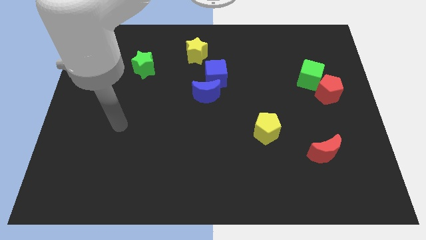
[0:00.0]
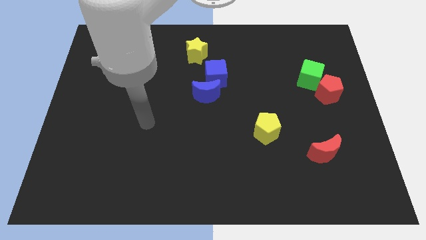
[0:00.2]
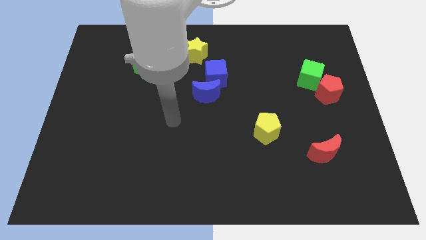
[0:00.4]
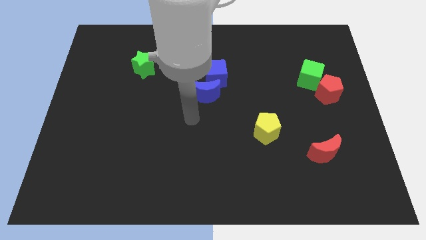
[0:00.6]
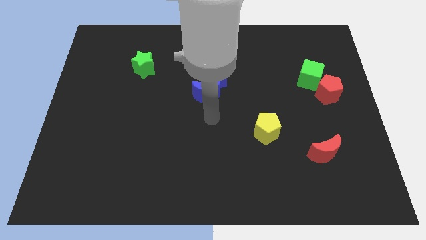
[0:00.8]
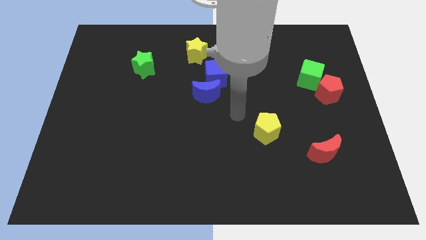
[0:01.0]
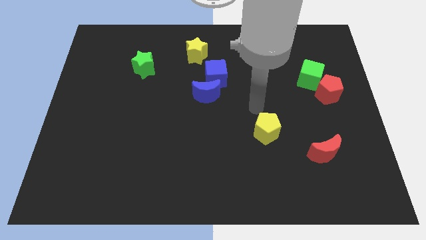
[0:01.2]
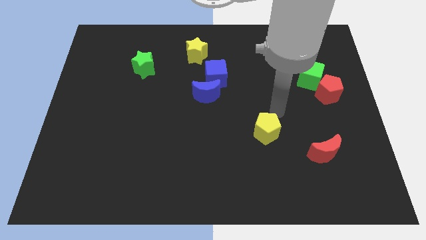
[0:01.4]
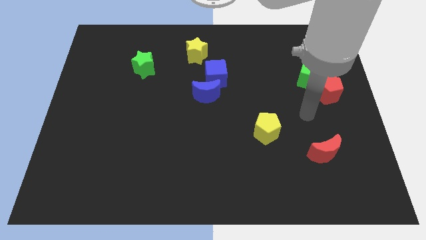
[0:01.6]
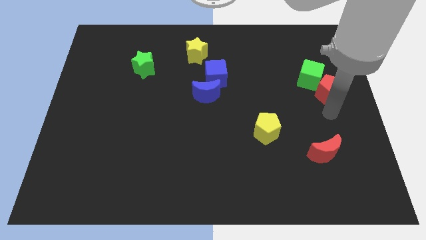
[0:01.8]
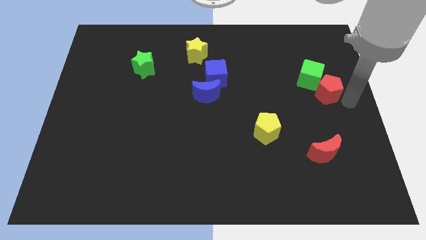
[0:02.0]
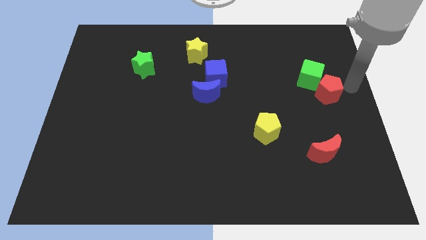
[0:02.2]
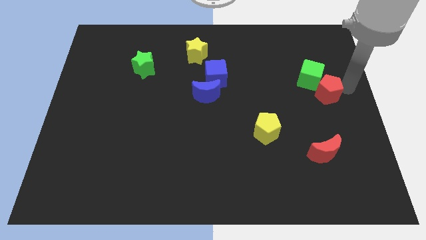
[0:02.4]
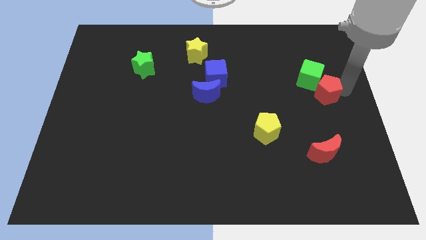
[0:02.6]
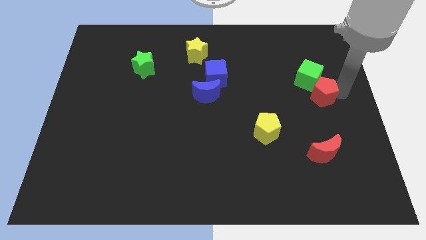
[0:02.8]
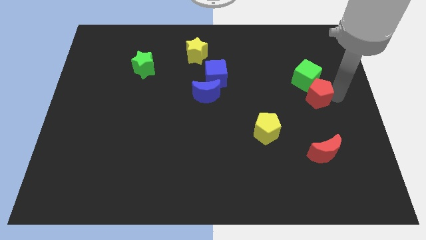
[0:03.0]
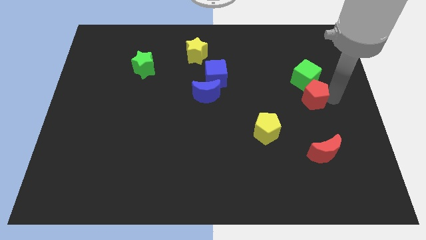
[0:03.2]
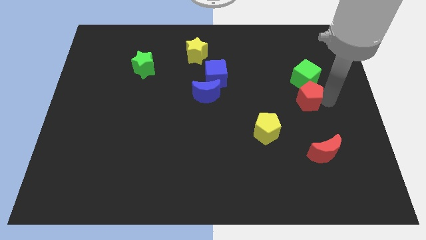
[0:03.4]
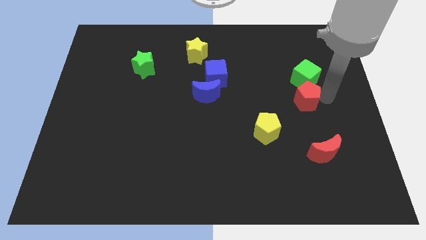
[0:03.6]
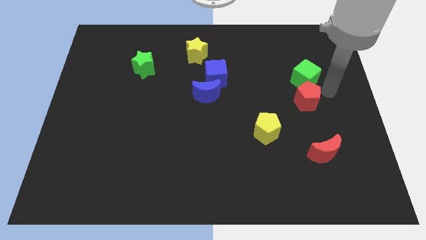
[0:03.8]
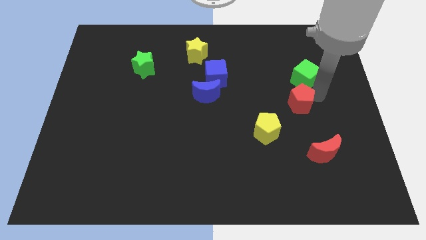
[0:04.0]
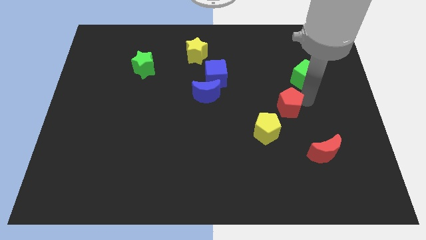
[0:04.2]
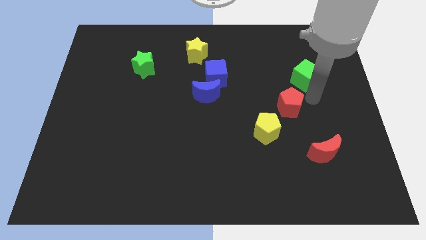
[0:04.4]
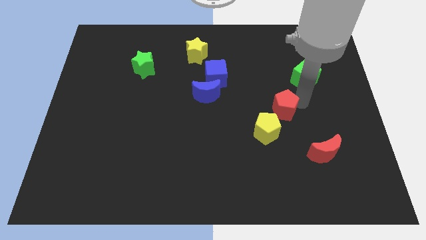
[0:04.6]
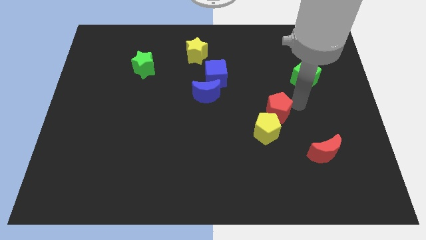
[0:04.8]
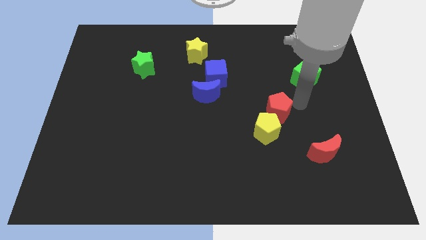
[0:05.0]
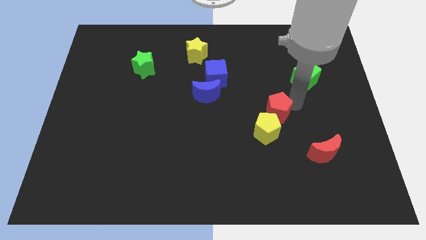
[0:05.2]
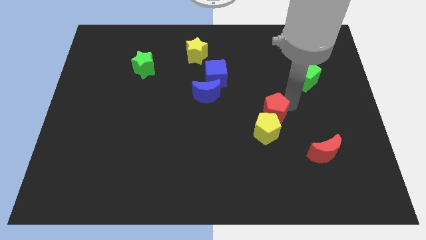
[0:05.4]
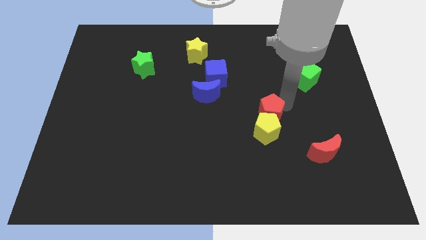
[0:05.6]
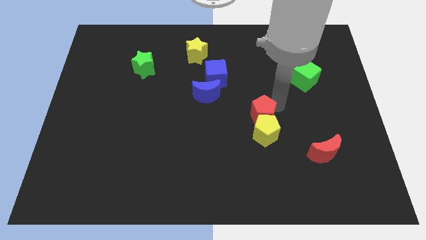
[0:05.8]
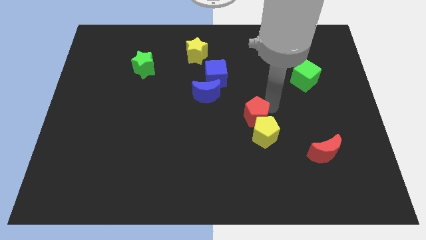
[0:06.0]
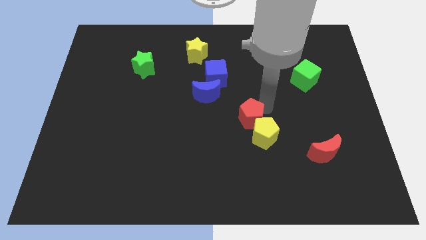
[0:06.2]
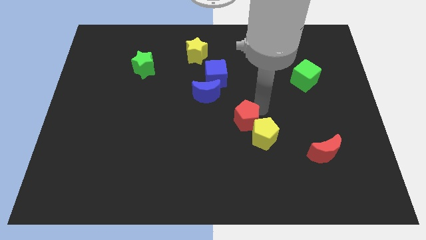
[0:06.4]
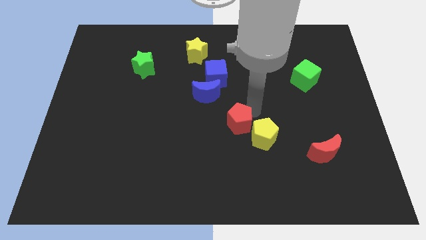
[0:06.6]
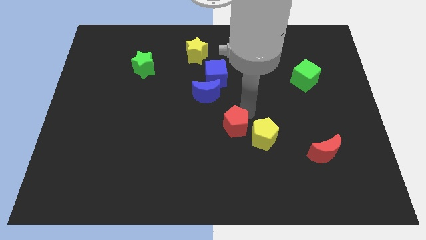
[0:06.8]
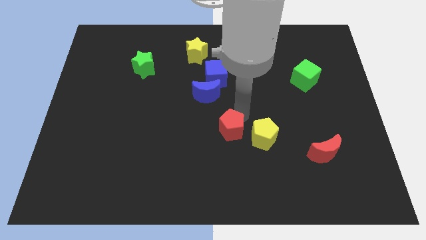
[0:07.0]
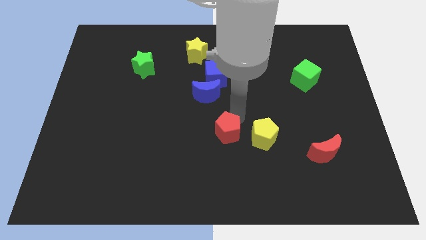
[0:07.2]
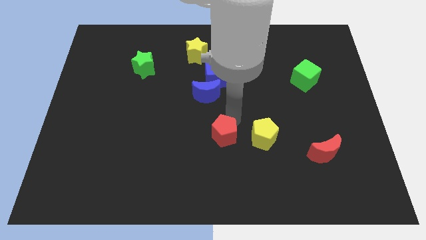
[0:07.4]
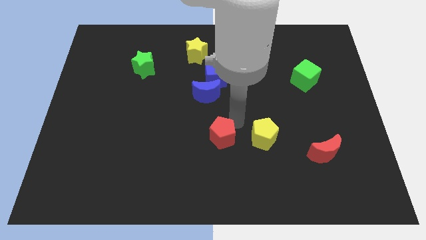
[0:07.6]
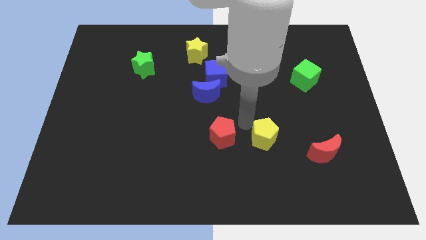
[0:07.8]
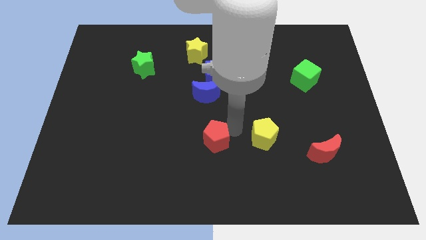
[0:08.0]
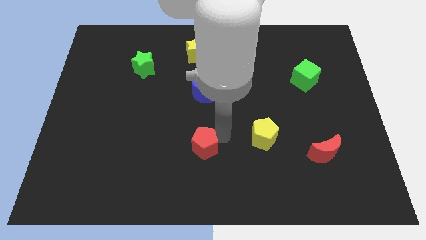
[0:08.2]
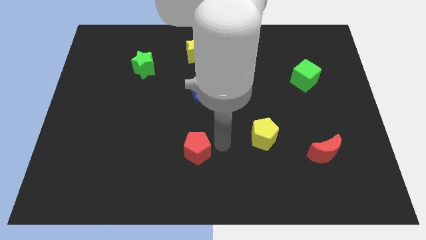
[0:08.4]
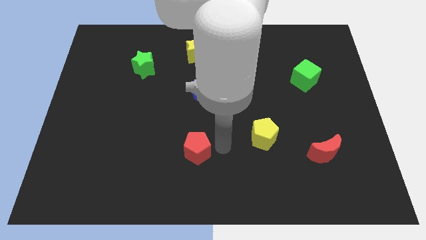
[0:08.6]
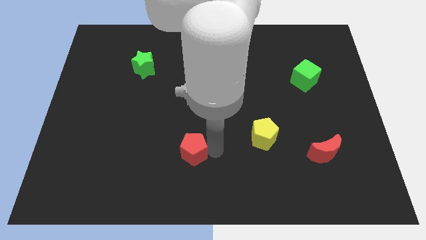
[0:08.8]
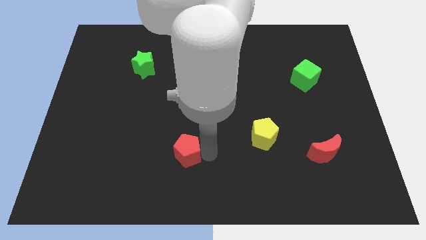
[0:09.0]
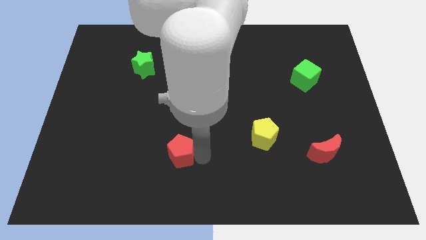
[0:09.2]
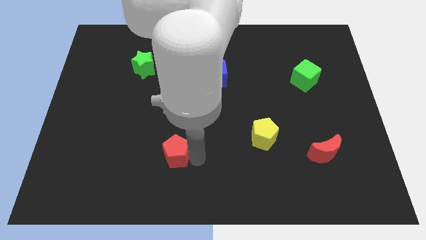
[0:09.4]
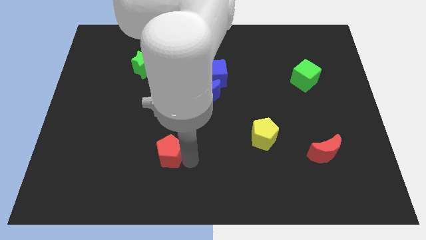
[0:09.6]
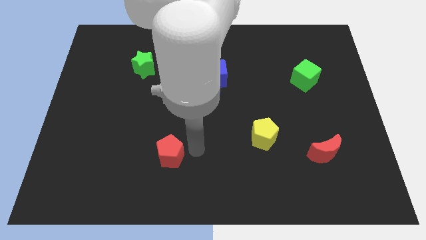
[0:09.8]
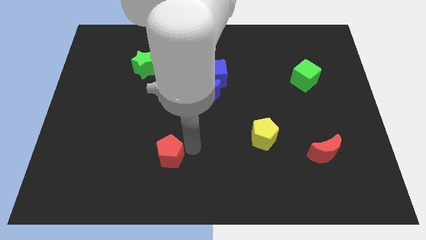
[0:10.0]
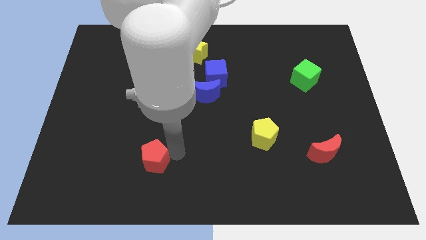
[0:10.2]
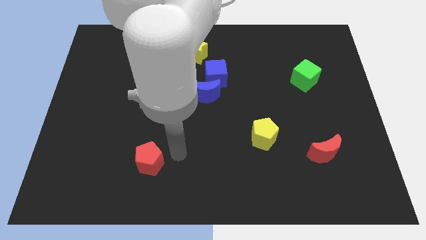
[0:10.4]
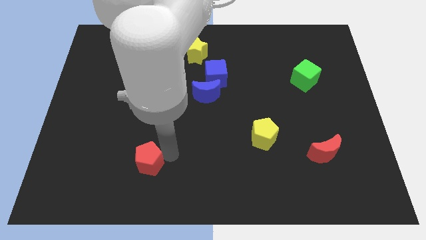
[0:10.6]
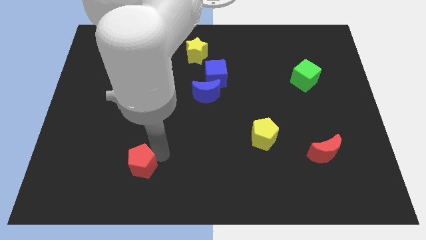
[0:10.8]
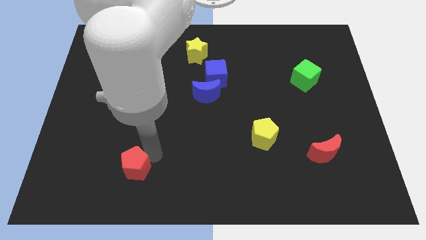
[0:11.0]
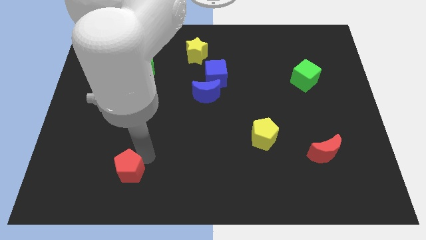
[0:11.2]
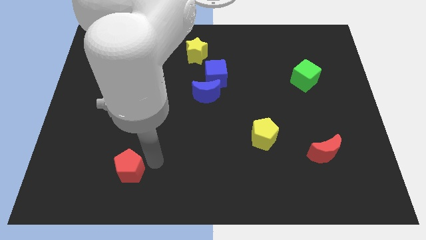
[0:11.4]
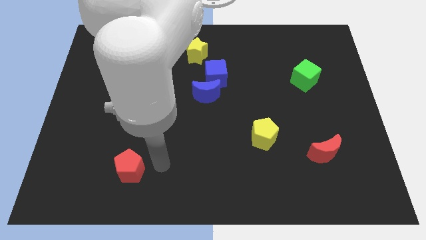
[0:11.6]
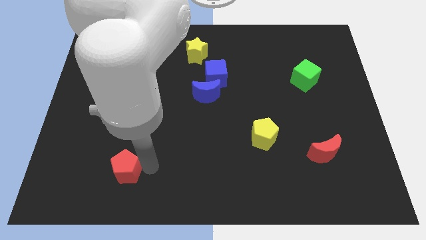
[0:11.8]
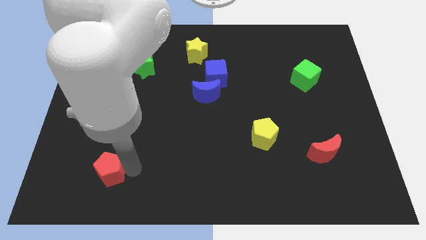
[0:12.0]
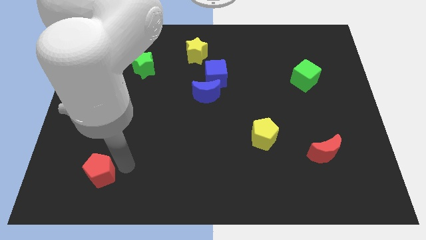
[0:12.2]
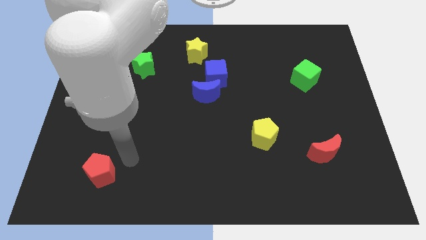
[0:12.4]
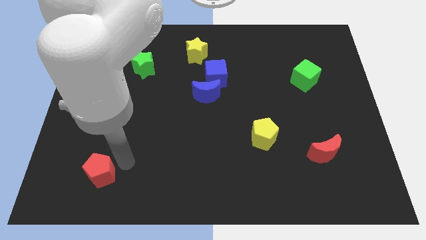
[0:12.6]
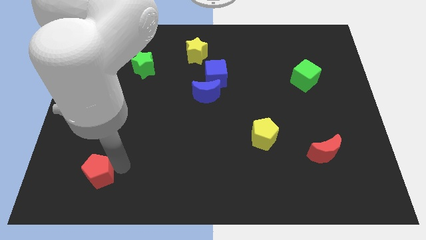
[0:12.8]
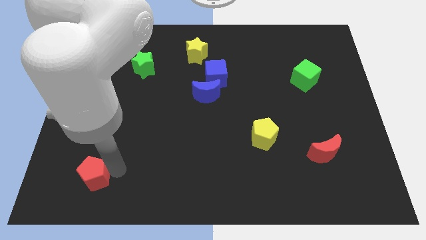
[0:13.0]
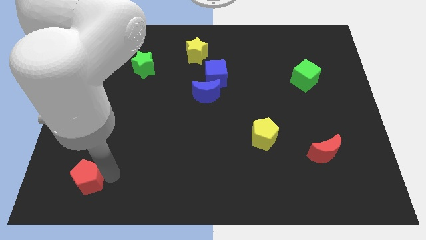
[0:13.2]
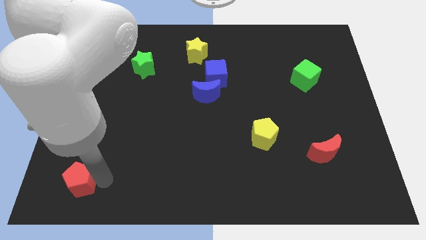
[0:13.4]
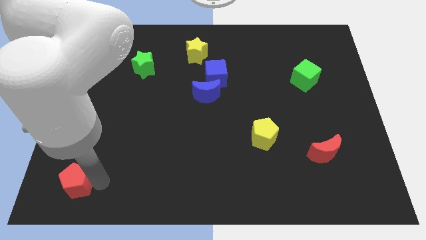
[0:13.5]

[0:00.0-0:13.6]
slide the red pentagon to the bottom left
